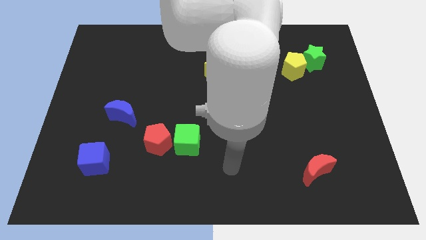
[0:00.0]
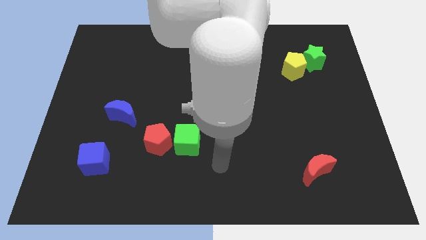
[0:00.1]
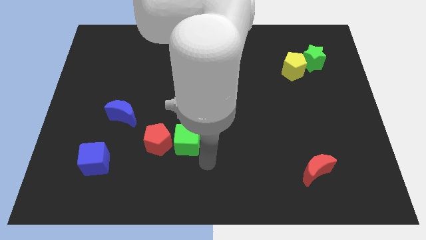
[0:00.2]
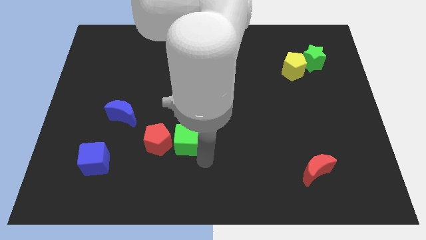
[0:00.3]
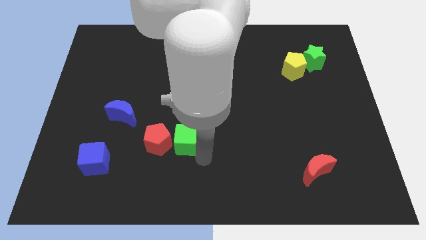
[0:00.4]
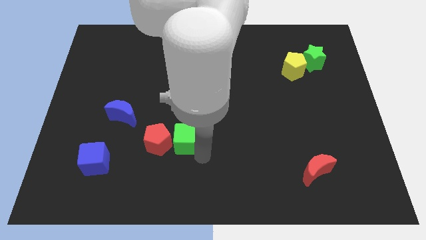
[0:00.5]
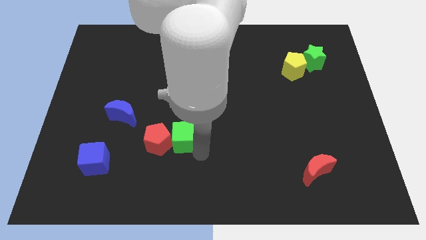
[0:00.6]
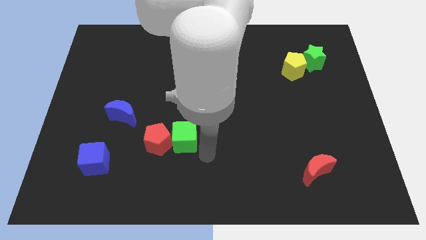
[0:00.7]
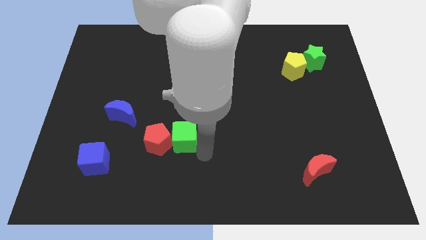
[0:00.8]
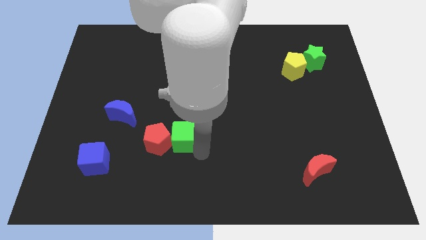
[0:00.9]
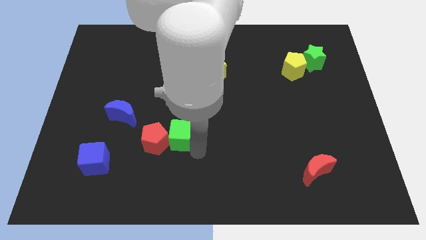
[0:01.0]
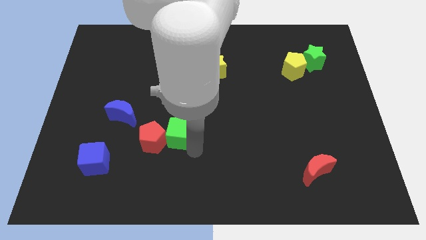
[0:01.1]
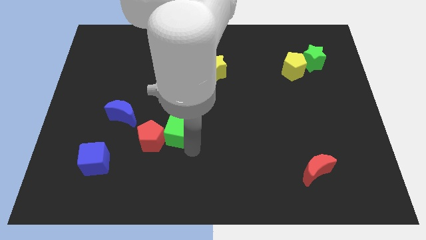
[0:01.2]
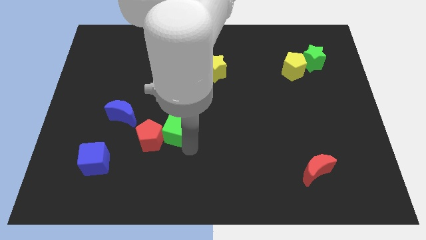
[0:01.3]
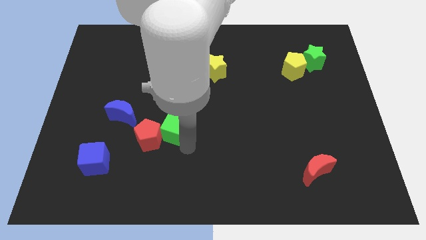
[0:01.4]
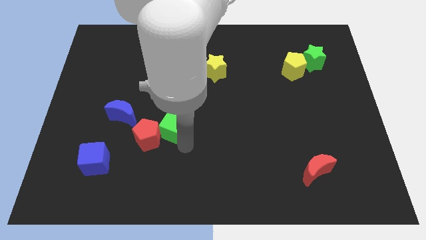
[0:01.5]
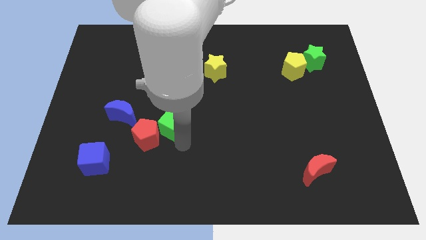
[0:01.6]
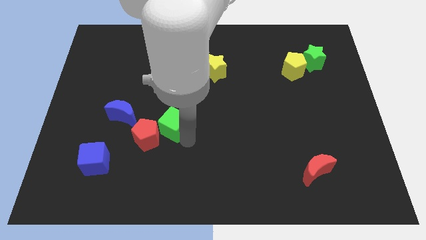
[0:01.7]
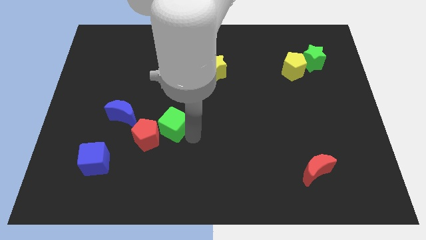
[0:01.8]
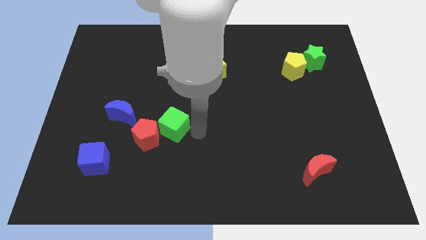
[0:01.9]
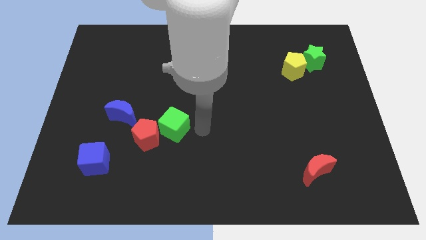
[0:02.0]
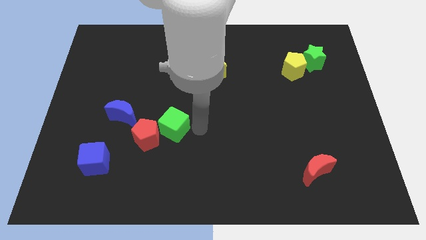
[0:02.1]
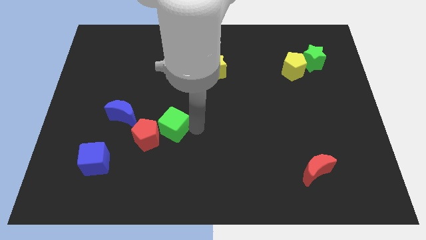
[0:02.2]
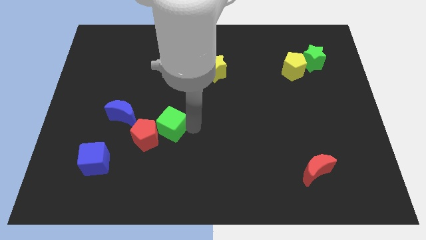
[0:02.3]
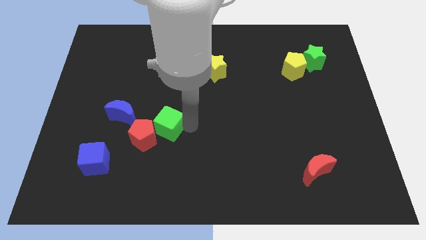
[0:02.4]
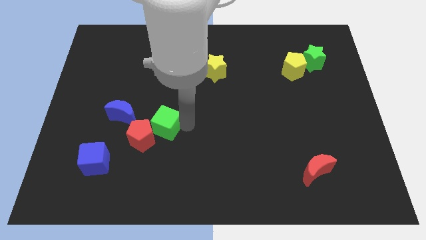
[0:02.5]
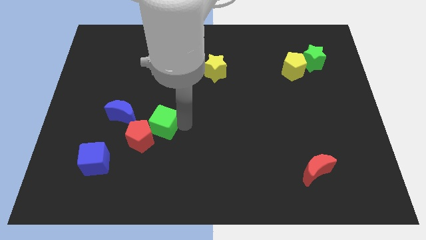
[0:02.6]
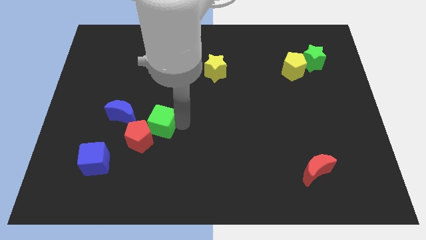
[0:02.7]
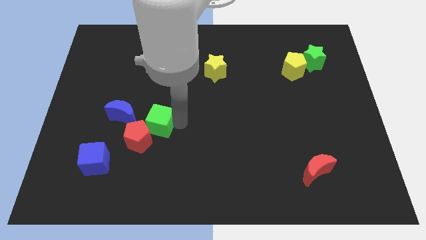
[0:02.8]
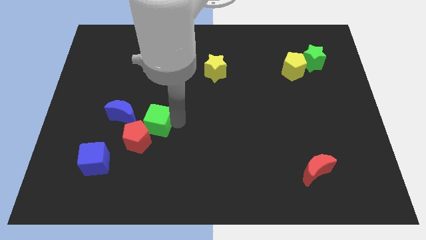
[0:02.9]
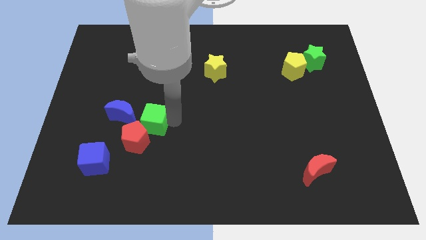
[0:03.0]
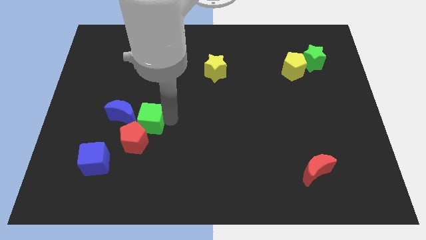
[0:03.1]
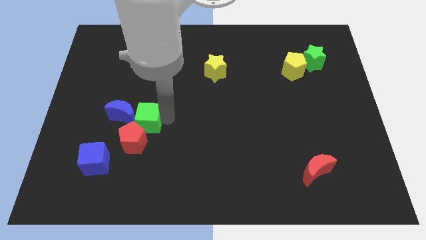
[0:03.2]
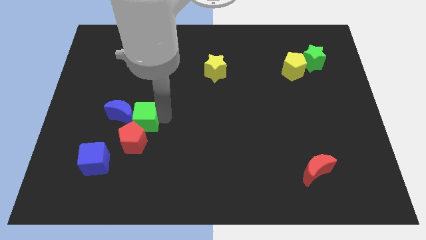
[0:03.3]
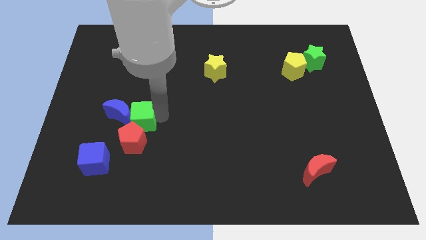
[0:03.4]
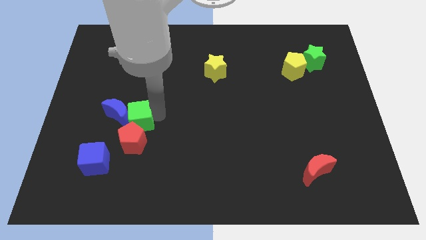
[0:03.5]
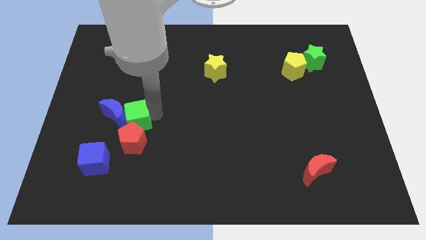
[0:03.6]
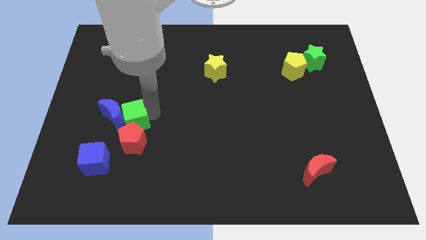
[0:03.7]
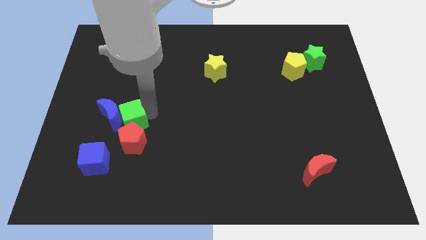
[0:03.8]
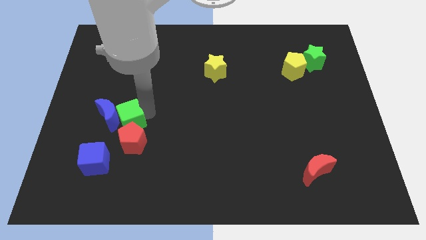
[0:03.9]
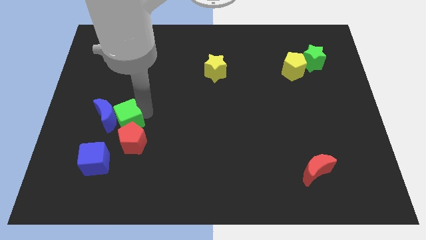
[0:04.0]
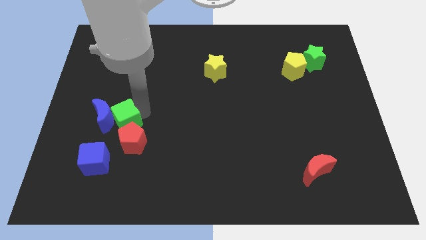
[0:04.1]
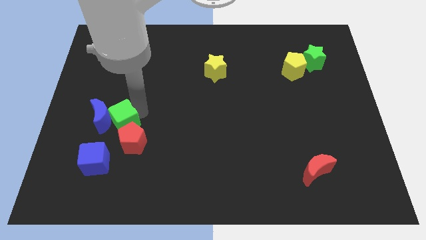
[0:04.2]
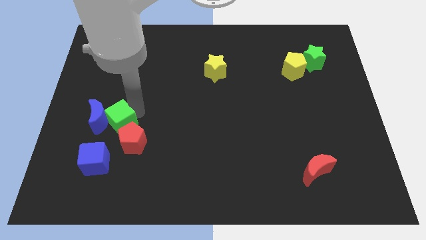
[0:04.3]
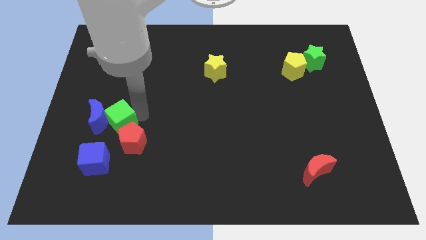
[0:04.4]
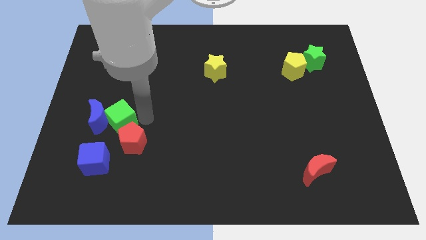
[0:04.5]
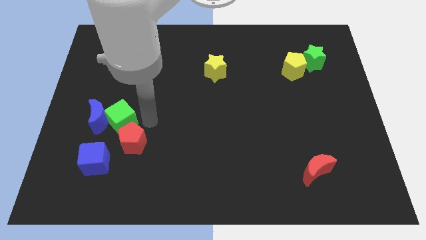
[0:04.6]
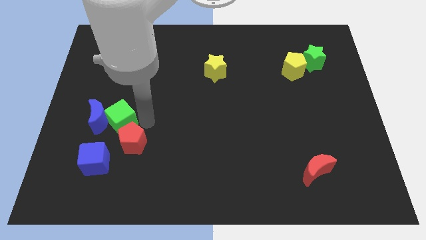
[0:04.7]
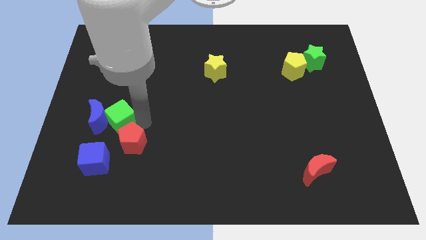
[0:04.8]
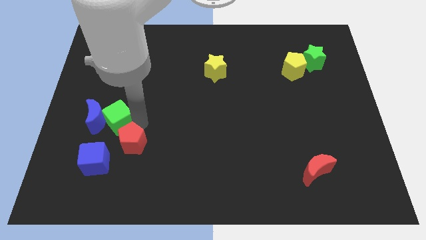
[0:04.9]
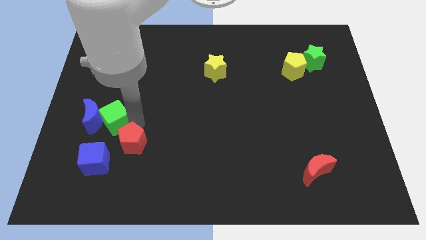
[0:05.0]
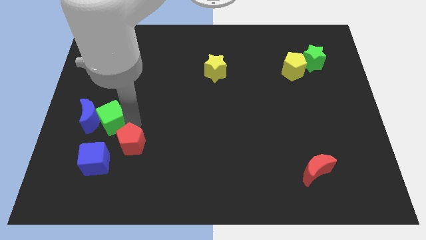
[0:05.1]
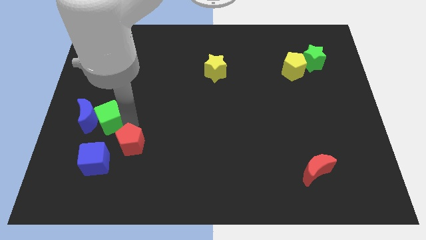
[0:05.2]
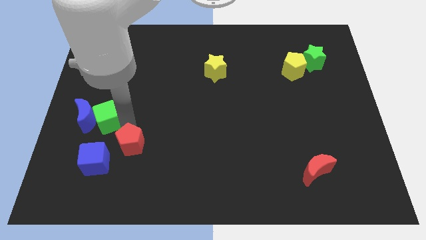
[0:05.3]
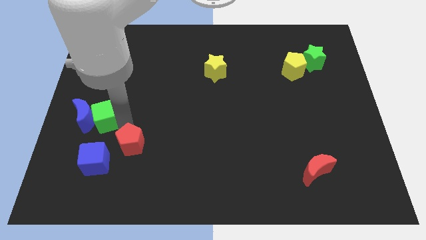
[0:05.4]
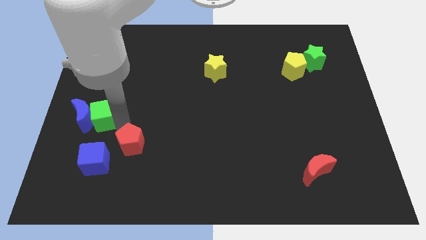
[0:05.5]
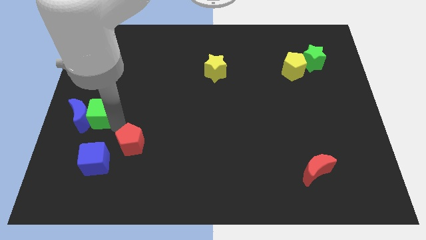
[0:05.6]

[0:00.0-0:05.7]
move the green cube to the left side of the board
